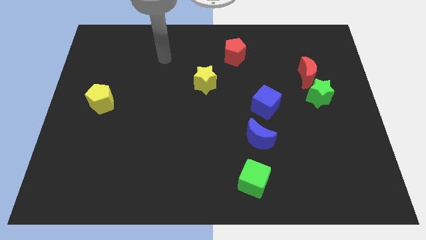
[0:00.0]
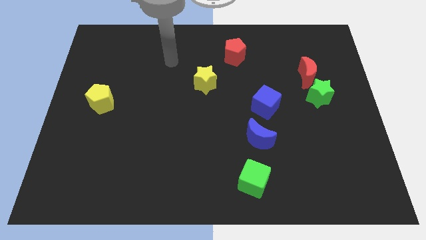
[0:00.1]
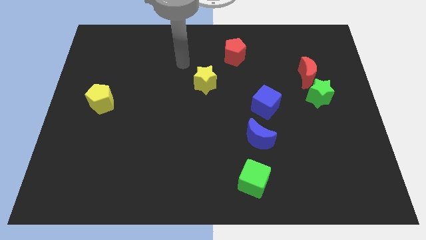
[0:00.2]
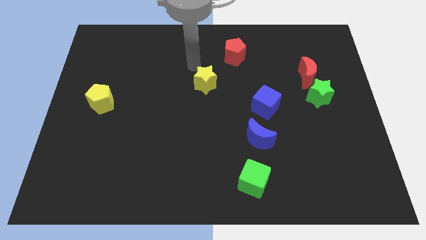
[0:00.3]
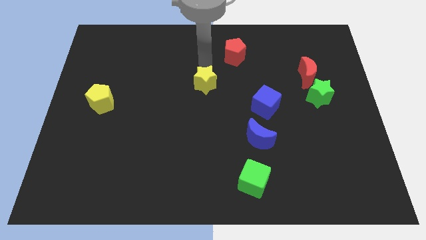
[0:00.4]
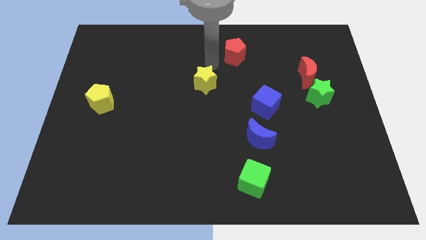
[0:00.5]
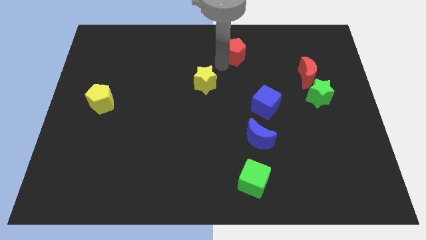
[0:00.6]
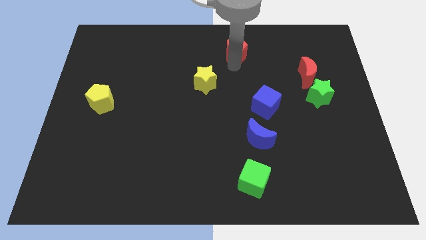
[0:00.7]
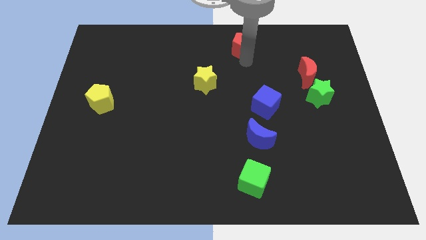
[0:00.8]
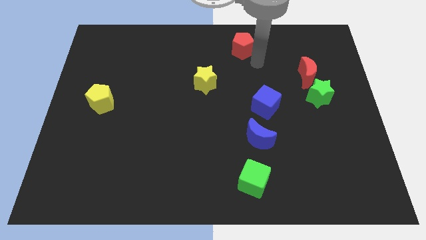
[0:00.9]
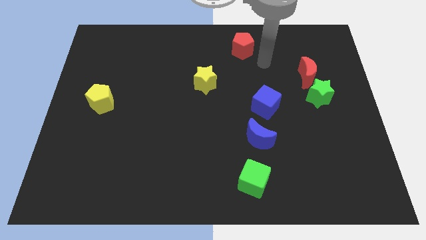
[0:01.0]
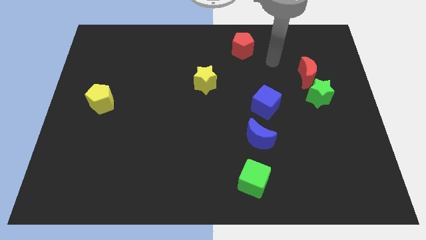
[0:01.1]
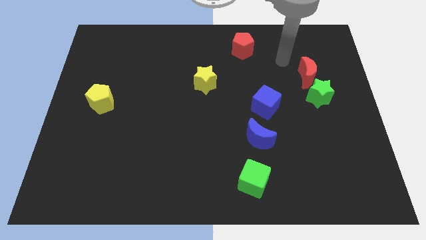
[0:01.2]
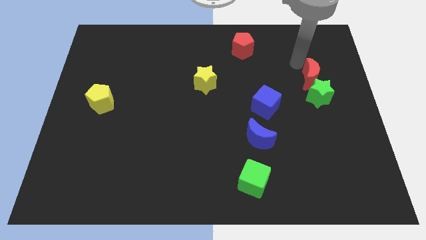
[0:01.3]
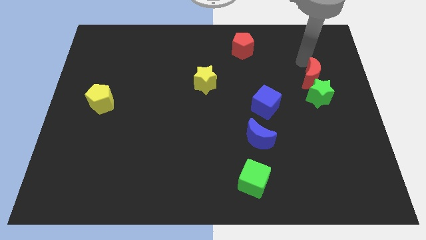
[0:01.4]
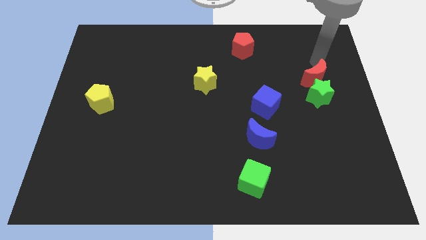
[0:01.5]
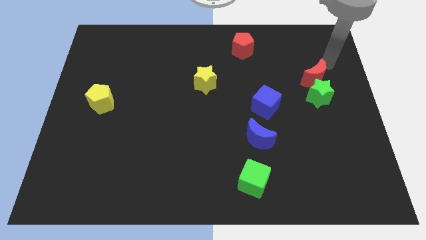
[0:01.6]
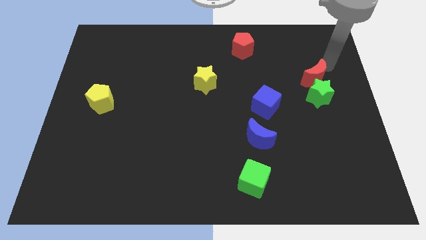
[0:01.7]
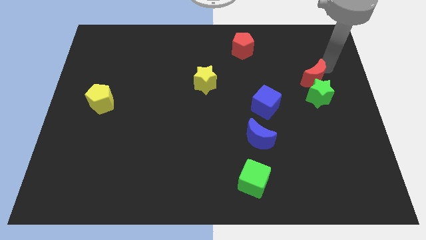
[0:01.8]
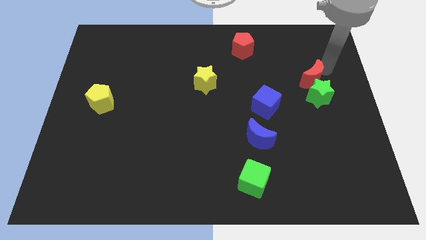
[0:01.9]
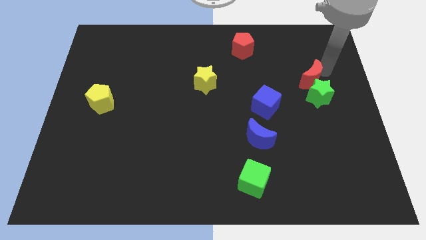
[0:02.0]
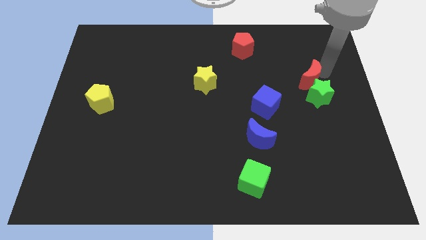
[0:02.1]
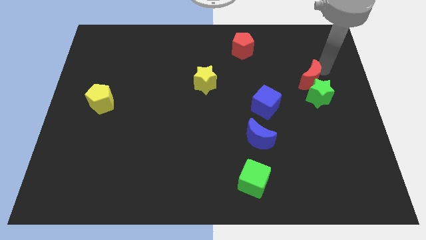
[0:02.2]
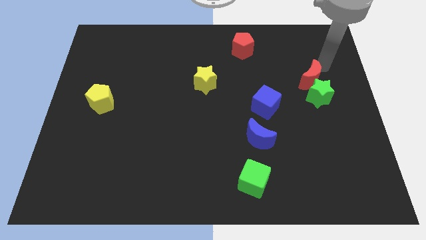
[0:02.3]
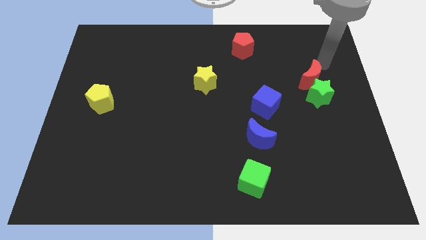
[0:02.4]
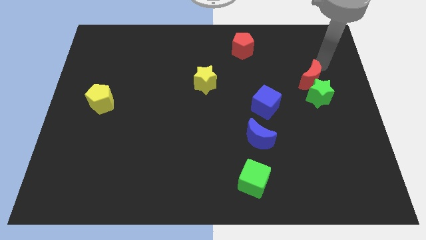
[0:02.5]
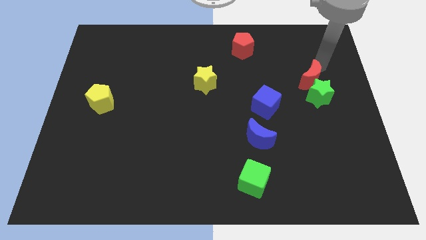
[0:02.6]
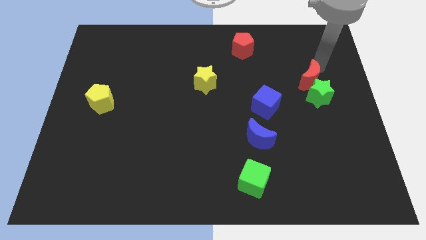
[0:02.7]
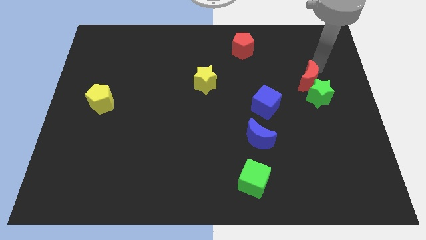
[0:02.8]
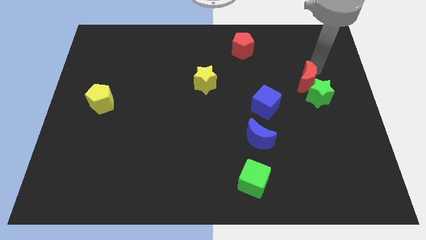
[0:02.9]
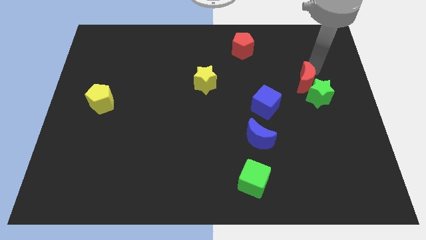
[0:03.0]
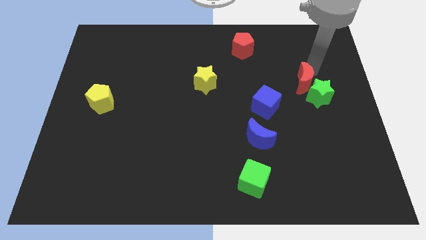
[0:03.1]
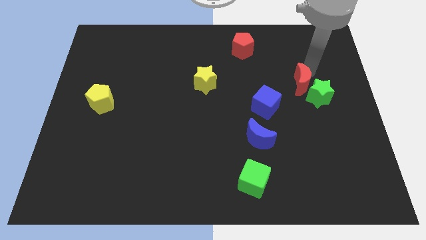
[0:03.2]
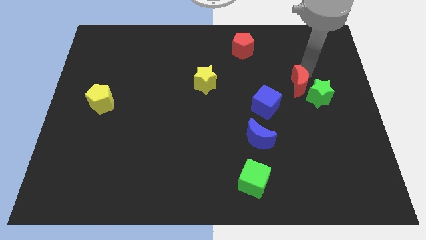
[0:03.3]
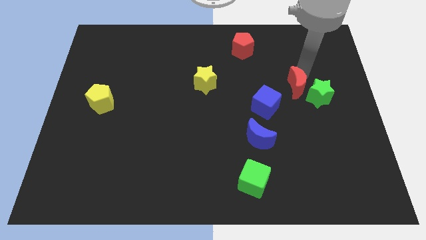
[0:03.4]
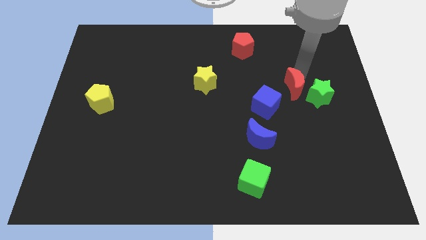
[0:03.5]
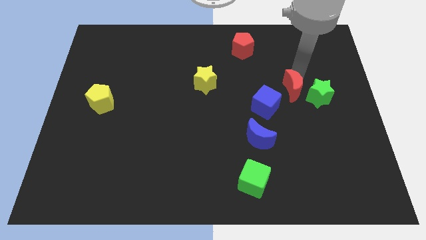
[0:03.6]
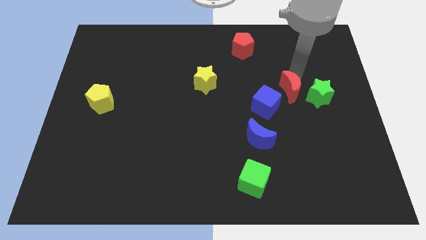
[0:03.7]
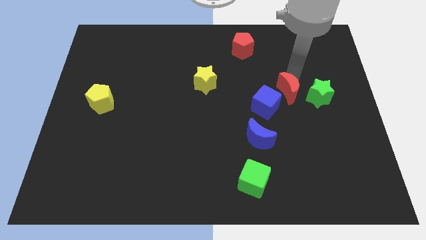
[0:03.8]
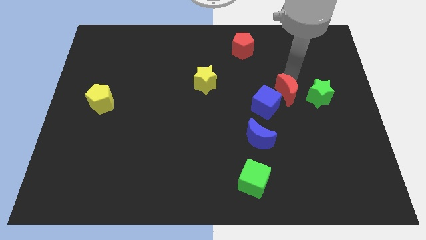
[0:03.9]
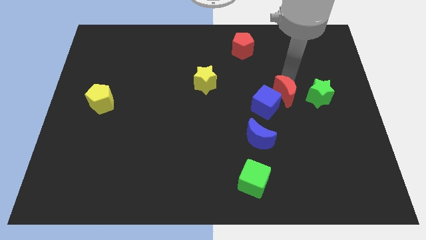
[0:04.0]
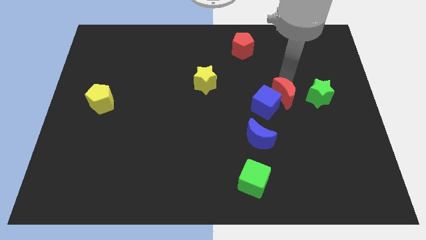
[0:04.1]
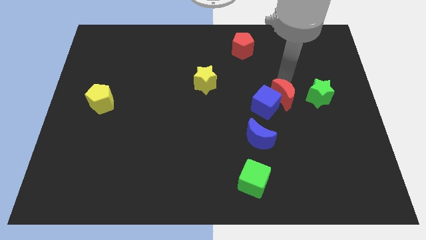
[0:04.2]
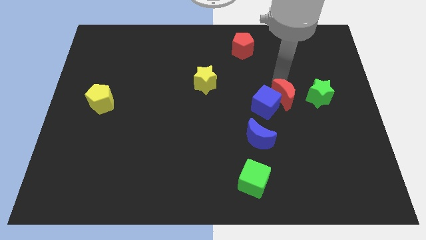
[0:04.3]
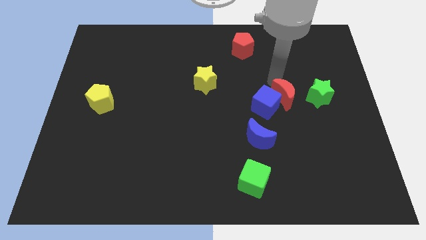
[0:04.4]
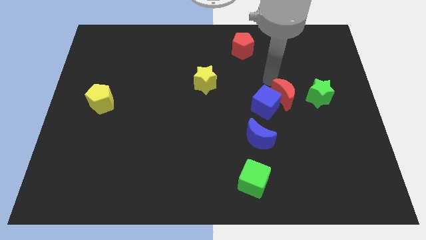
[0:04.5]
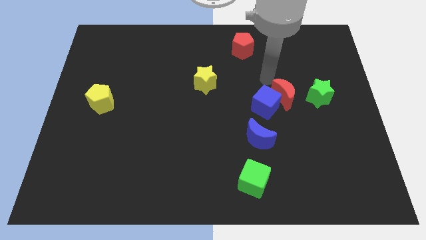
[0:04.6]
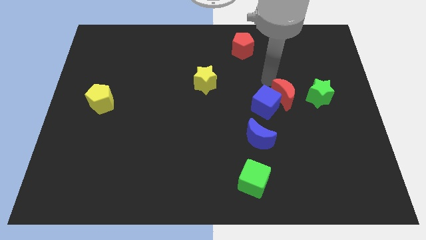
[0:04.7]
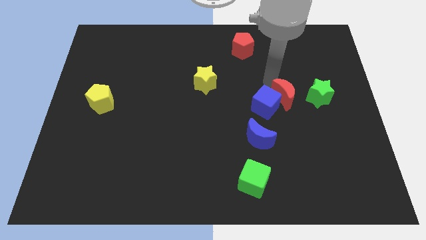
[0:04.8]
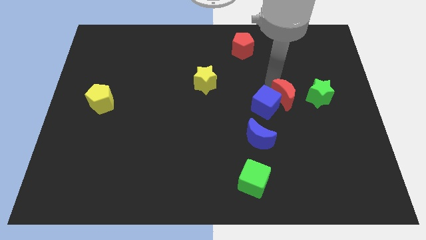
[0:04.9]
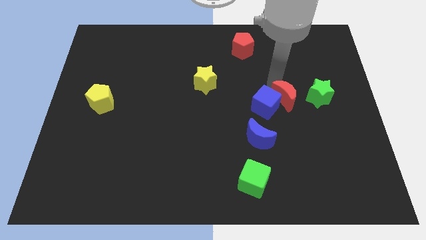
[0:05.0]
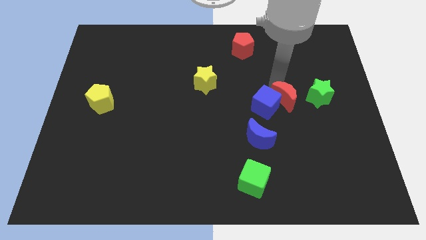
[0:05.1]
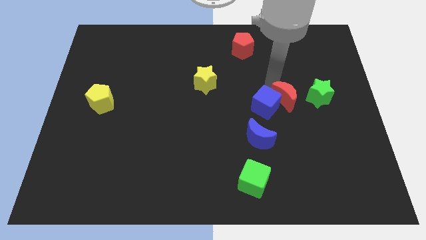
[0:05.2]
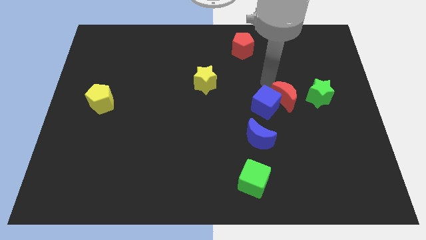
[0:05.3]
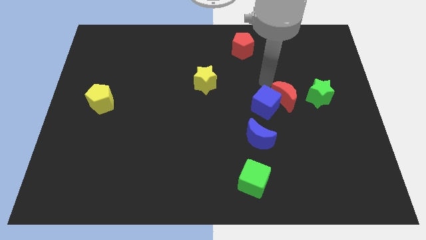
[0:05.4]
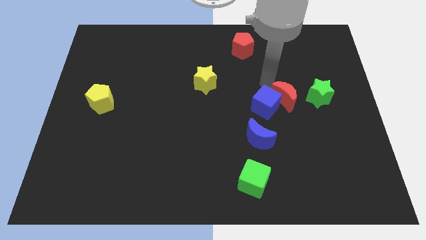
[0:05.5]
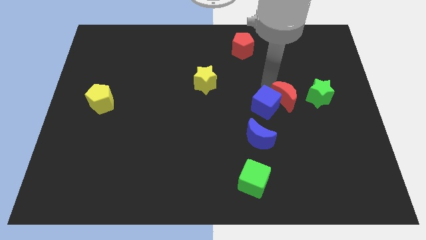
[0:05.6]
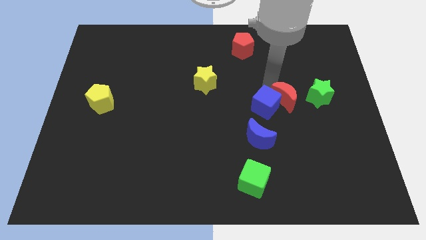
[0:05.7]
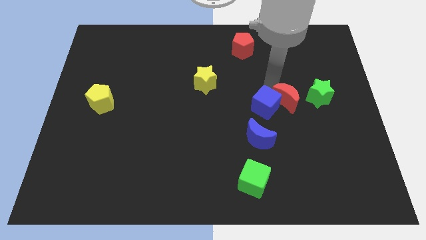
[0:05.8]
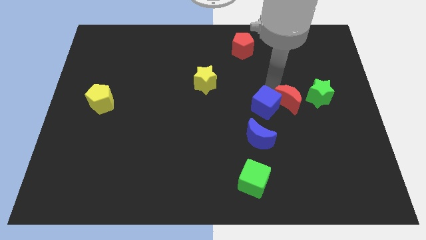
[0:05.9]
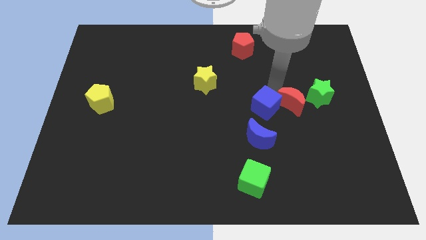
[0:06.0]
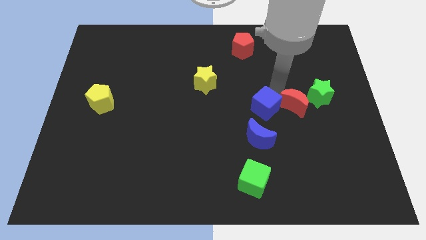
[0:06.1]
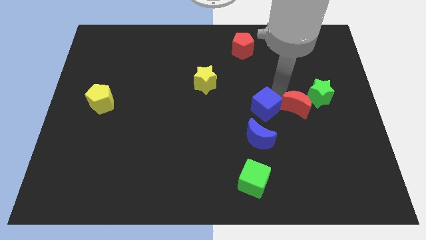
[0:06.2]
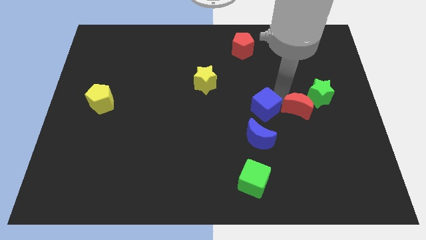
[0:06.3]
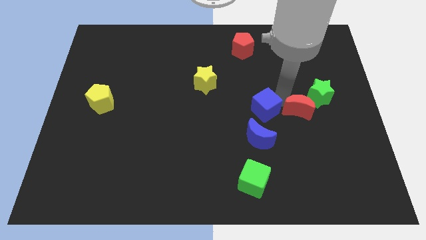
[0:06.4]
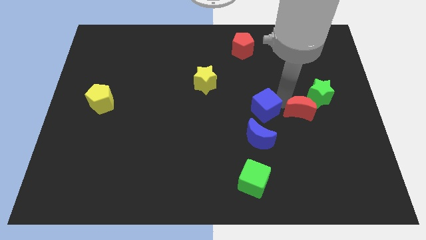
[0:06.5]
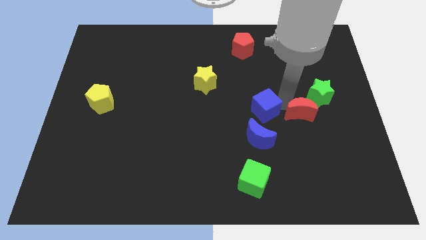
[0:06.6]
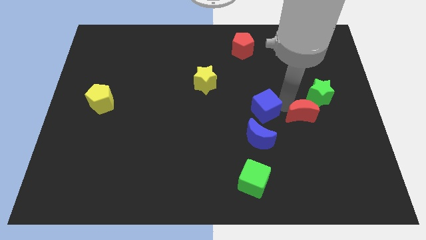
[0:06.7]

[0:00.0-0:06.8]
put the red moon below the green star

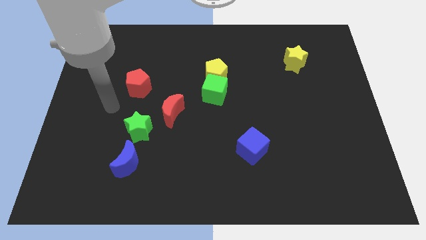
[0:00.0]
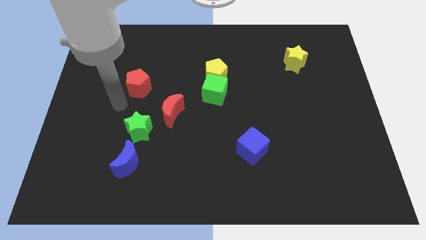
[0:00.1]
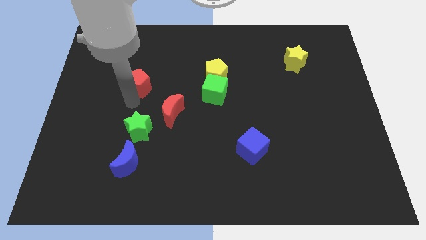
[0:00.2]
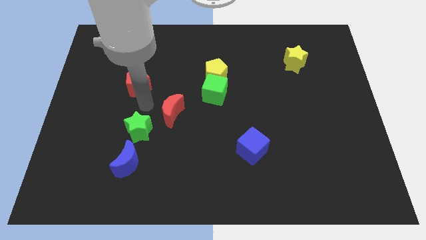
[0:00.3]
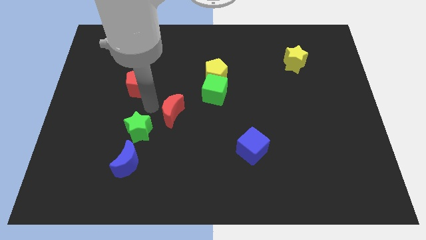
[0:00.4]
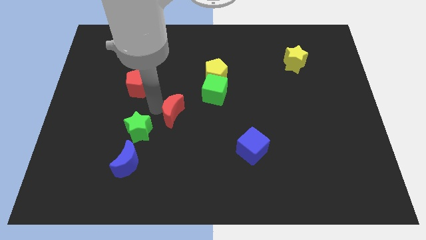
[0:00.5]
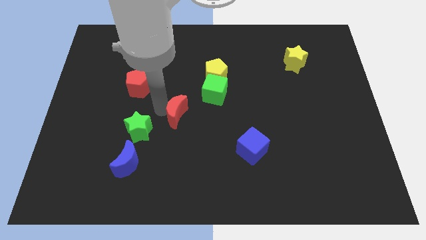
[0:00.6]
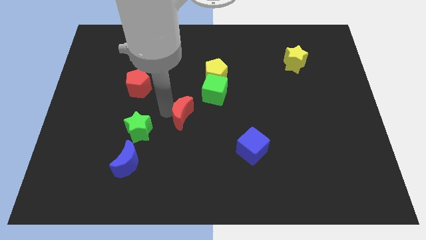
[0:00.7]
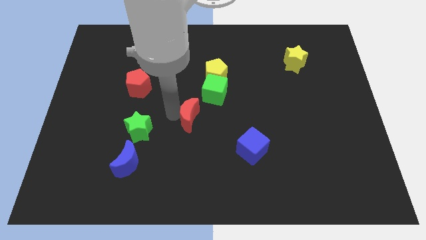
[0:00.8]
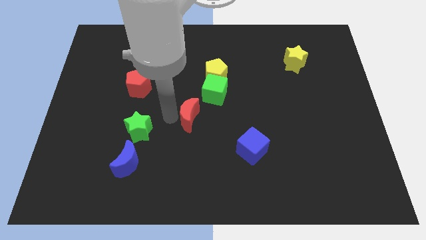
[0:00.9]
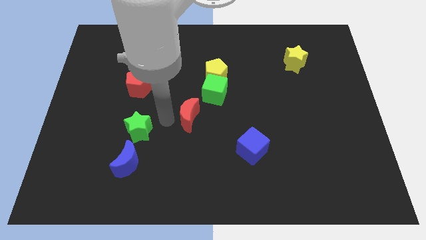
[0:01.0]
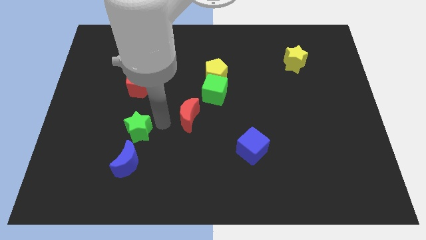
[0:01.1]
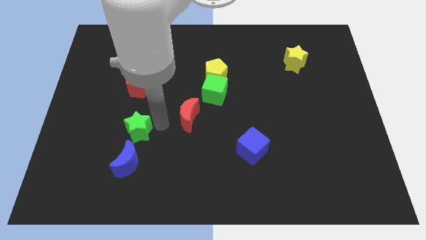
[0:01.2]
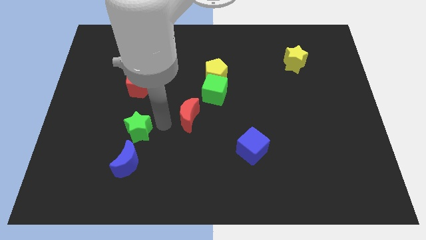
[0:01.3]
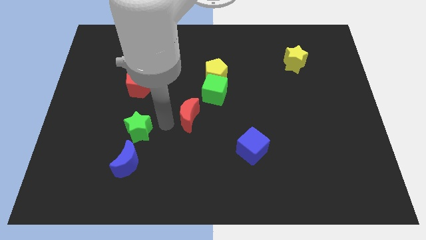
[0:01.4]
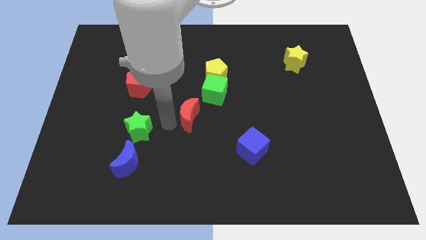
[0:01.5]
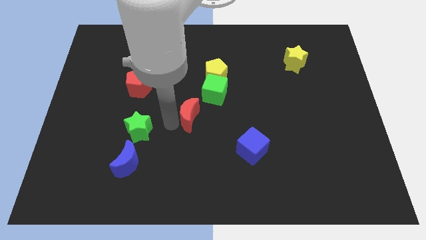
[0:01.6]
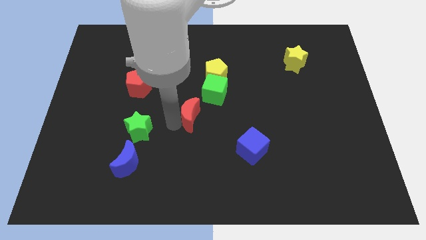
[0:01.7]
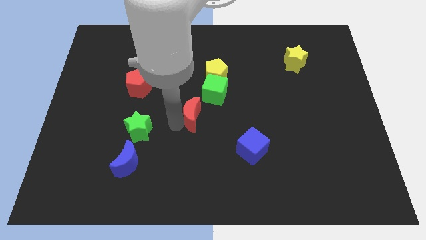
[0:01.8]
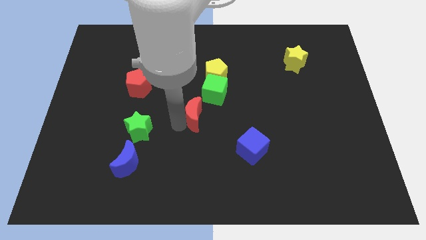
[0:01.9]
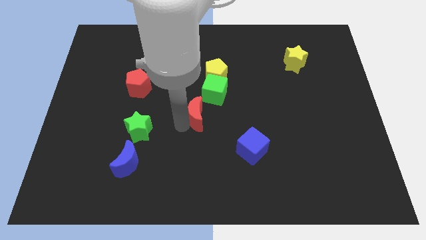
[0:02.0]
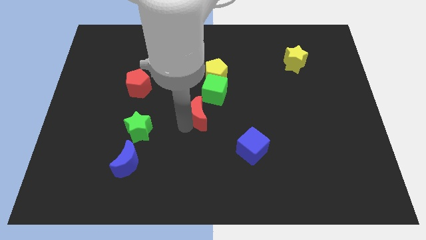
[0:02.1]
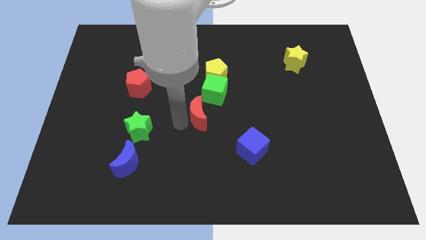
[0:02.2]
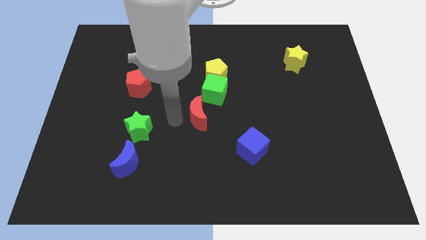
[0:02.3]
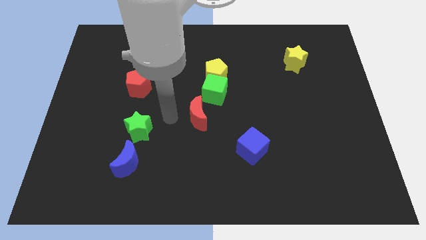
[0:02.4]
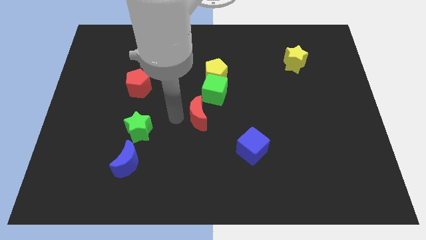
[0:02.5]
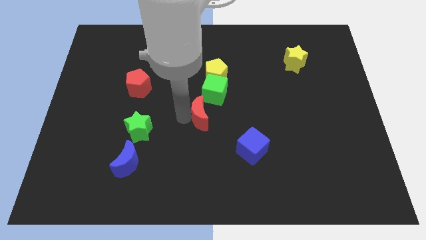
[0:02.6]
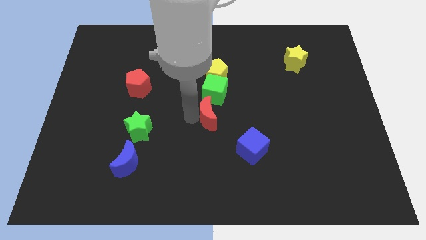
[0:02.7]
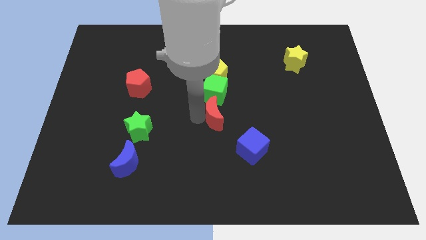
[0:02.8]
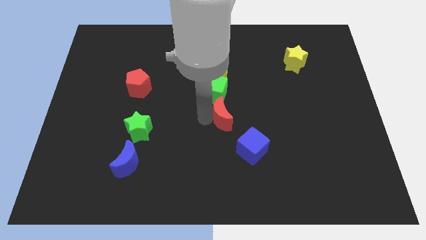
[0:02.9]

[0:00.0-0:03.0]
move the red moon to the bottom right of the green cube
